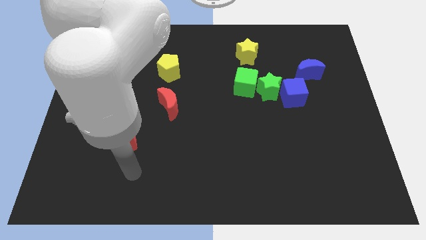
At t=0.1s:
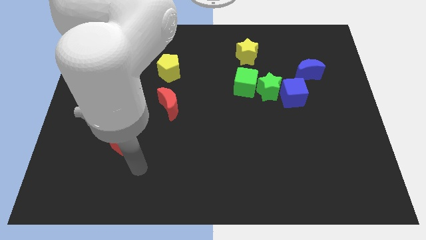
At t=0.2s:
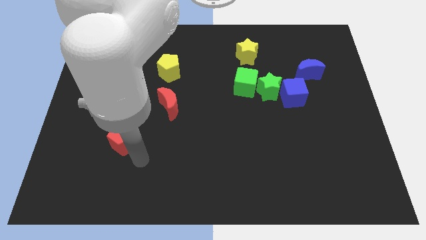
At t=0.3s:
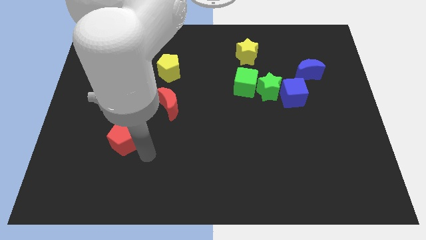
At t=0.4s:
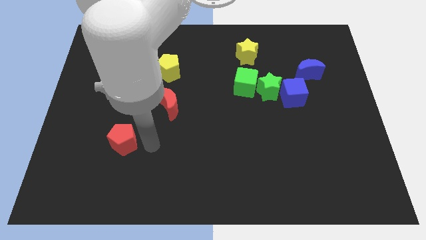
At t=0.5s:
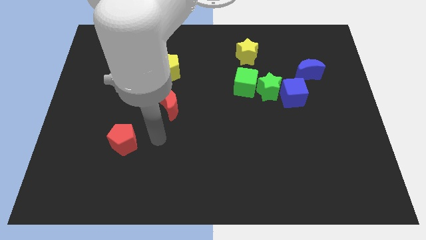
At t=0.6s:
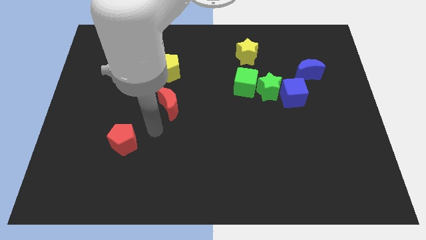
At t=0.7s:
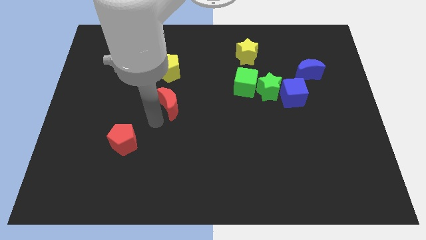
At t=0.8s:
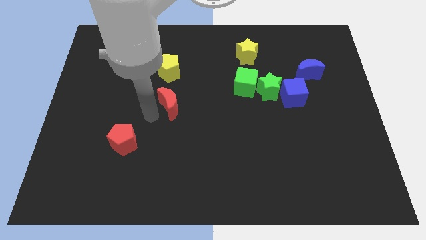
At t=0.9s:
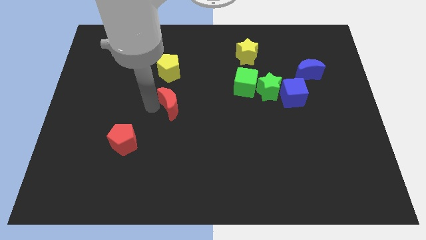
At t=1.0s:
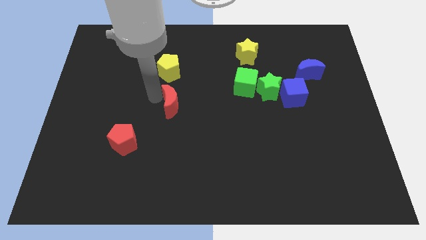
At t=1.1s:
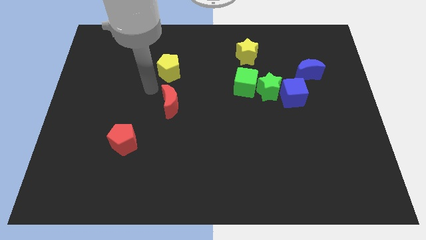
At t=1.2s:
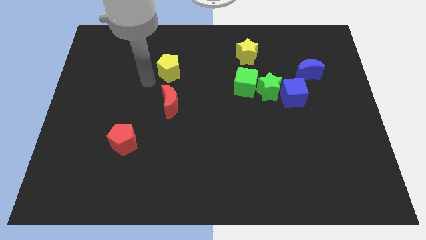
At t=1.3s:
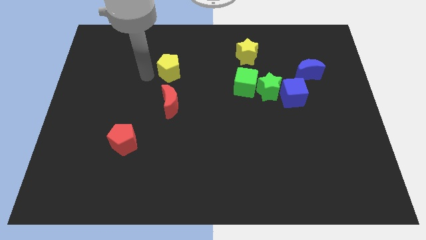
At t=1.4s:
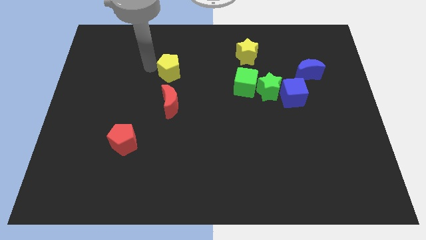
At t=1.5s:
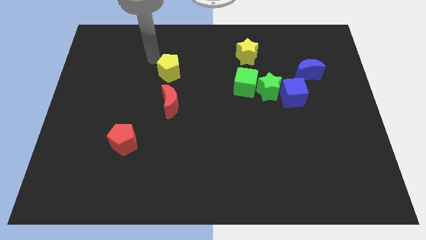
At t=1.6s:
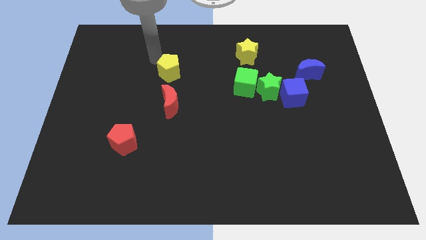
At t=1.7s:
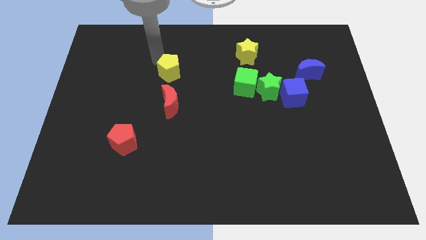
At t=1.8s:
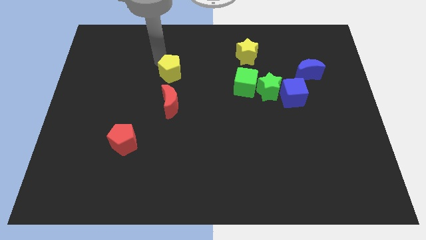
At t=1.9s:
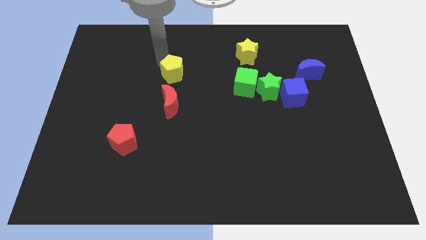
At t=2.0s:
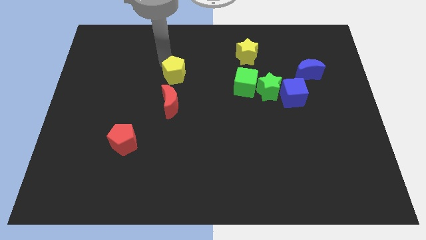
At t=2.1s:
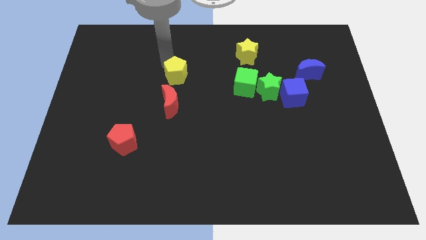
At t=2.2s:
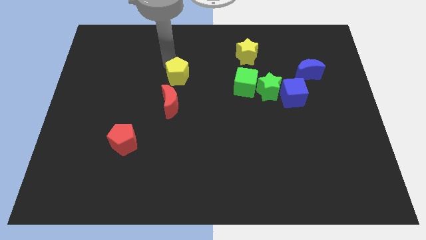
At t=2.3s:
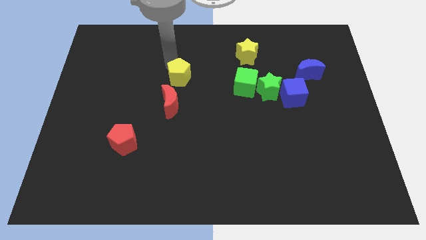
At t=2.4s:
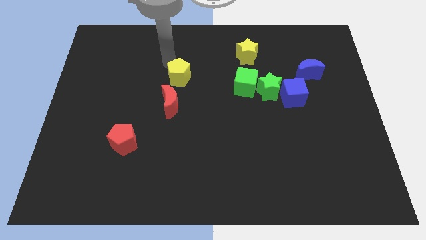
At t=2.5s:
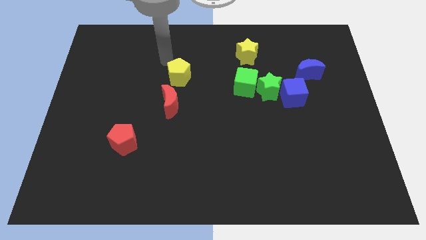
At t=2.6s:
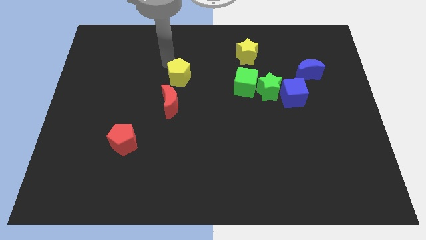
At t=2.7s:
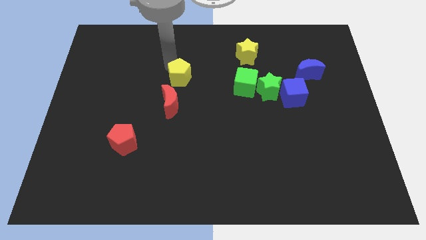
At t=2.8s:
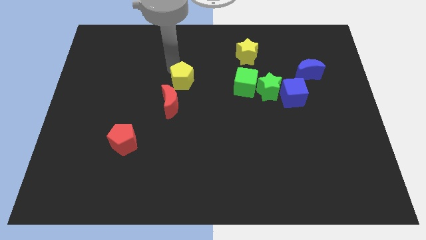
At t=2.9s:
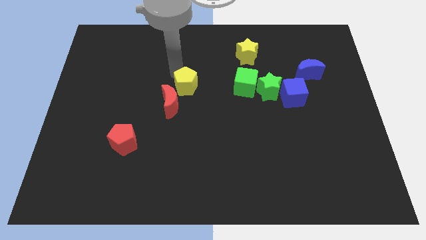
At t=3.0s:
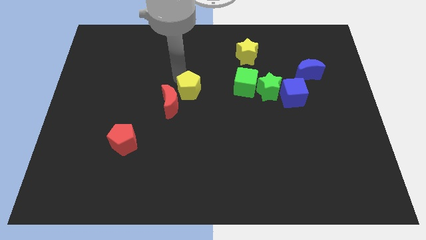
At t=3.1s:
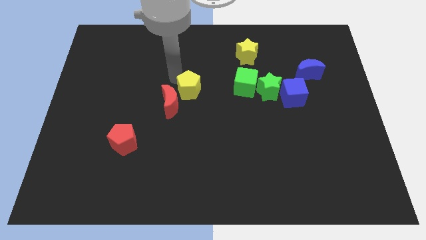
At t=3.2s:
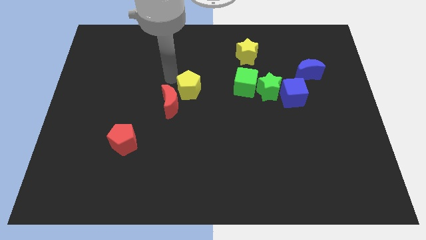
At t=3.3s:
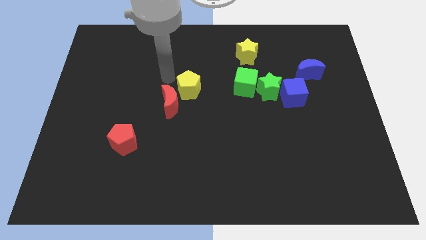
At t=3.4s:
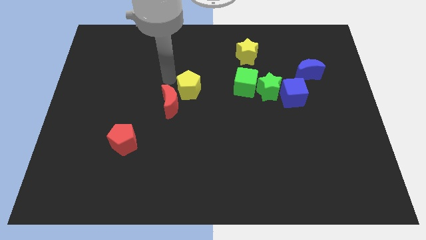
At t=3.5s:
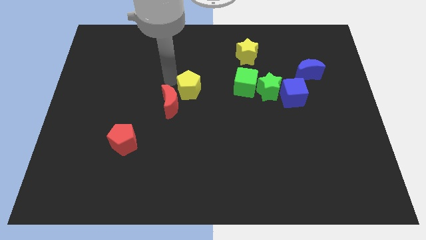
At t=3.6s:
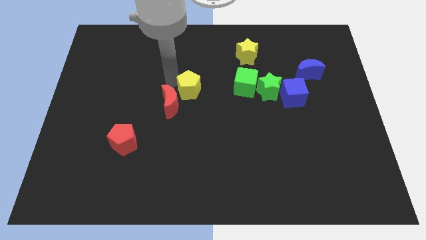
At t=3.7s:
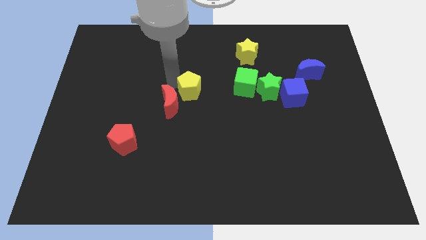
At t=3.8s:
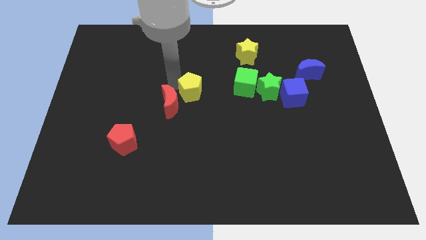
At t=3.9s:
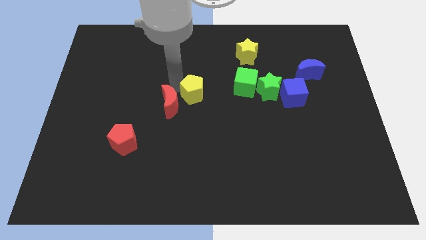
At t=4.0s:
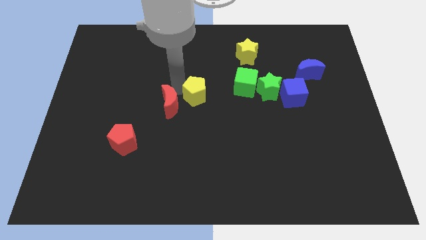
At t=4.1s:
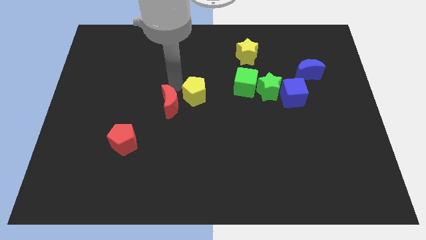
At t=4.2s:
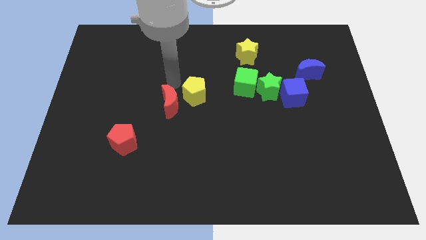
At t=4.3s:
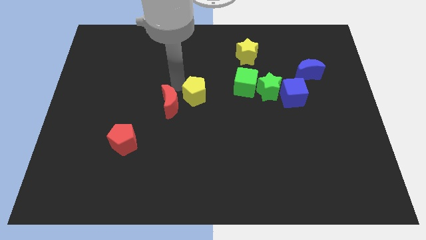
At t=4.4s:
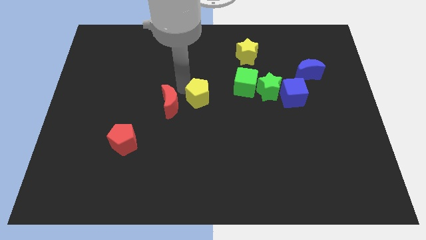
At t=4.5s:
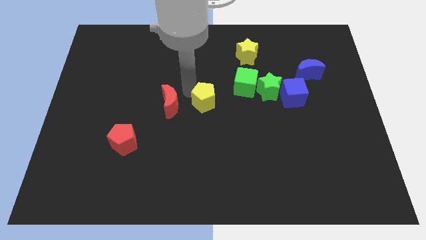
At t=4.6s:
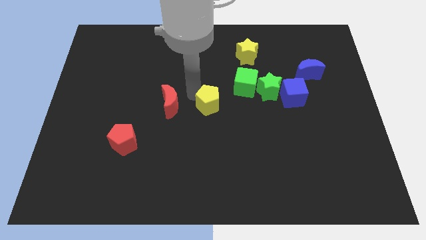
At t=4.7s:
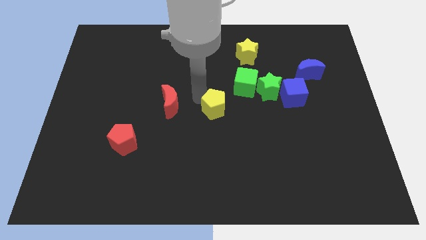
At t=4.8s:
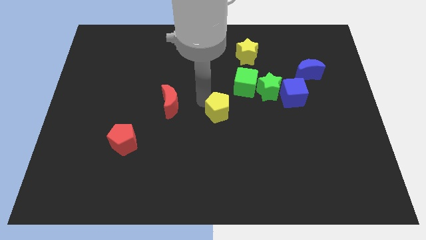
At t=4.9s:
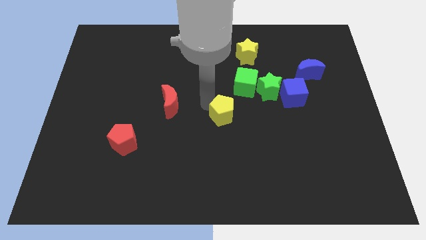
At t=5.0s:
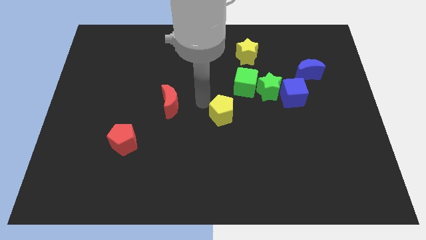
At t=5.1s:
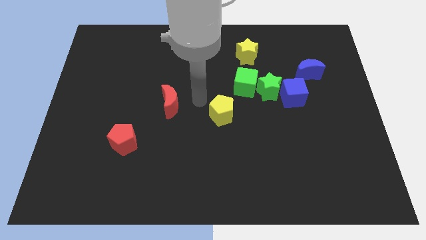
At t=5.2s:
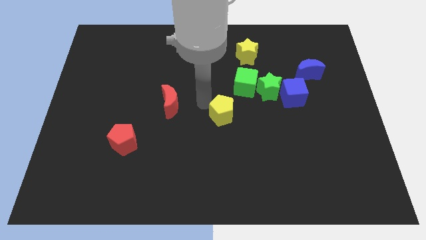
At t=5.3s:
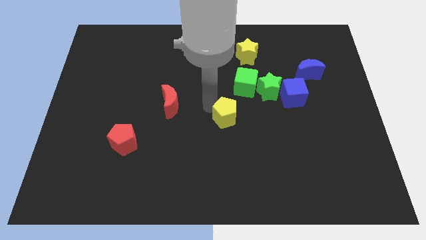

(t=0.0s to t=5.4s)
slide the yellow pentagon downwards and to the right diagonally

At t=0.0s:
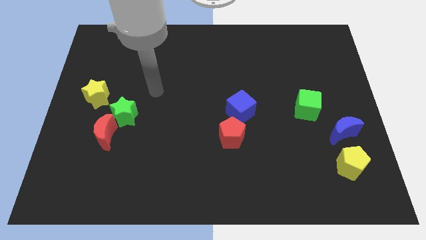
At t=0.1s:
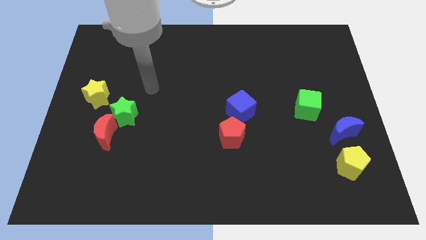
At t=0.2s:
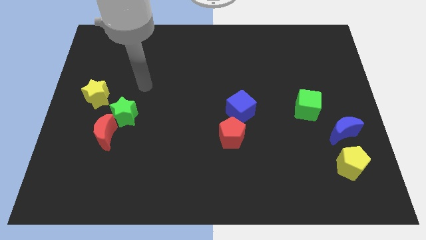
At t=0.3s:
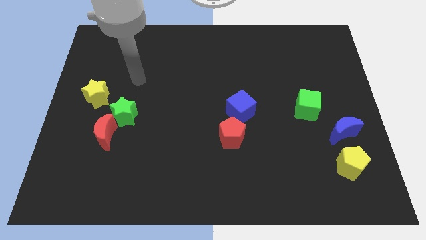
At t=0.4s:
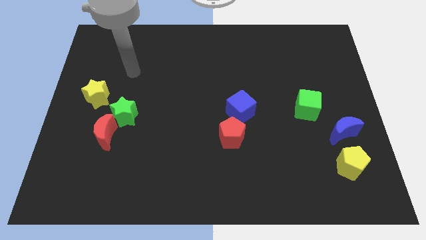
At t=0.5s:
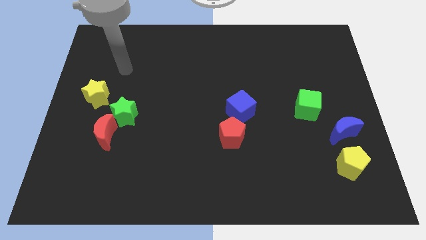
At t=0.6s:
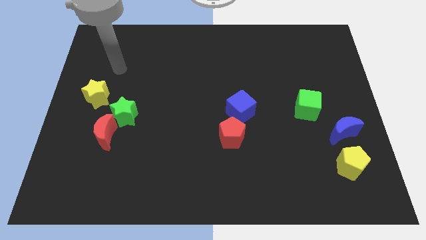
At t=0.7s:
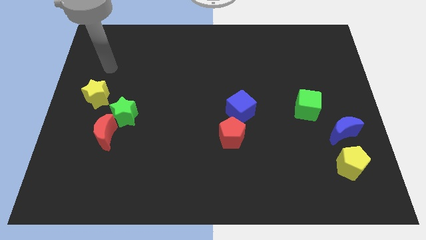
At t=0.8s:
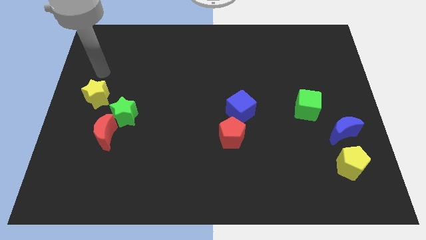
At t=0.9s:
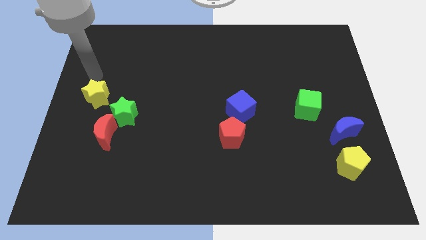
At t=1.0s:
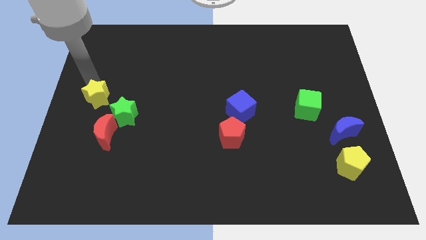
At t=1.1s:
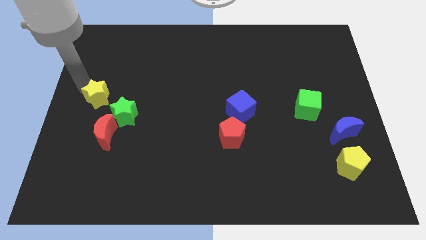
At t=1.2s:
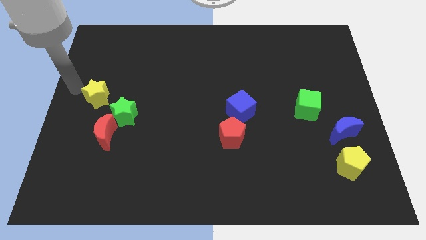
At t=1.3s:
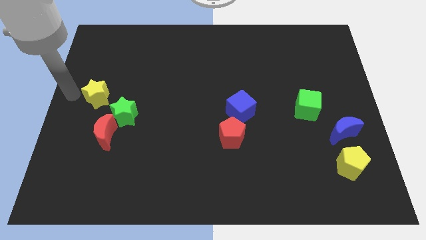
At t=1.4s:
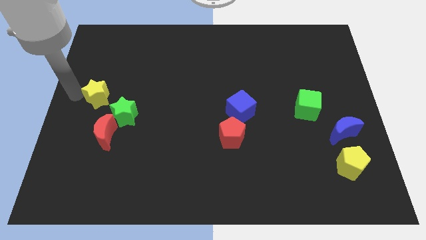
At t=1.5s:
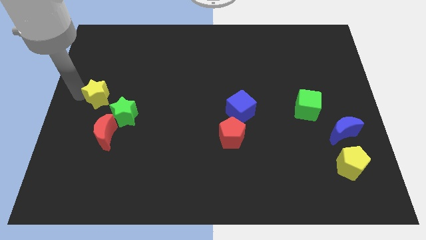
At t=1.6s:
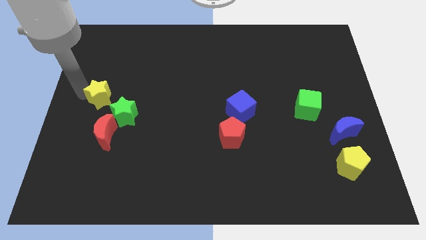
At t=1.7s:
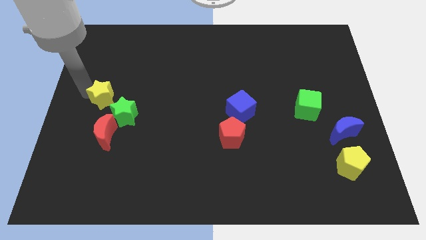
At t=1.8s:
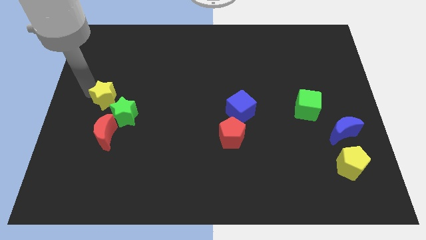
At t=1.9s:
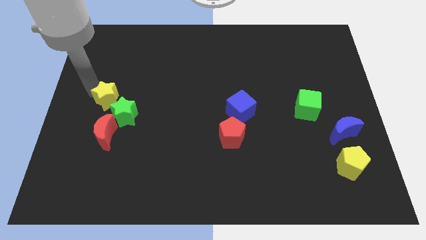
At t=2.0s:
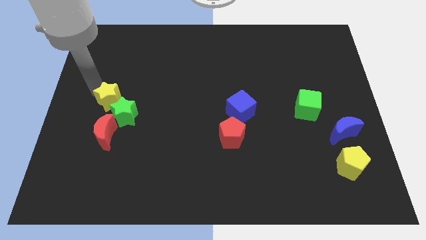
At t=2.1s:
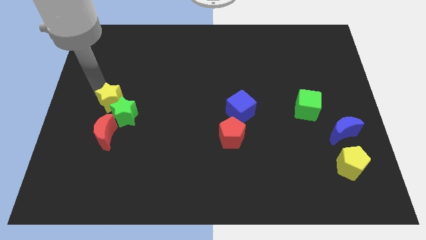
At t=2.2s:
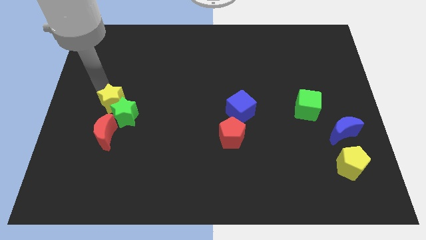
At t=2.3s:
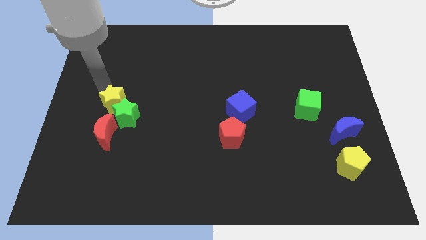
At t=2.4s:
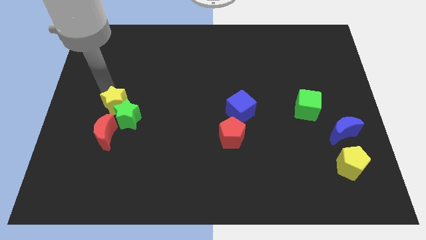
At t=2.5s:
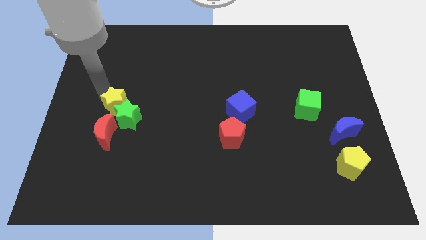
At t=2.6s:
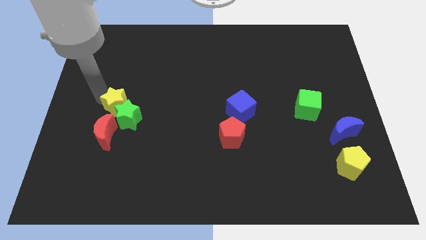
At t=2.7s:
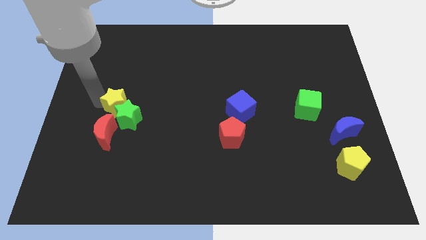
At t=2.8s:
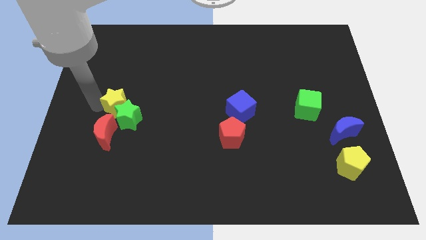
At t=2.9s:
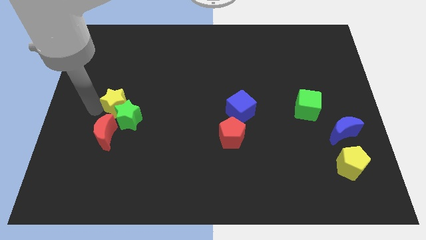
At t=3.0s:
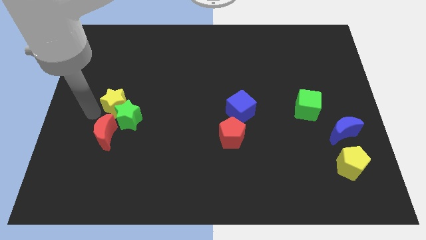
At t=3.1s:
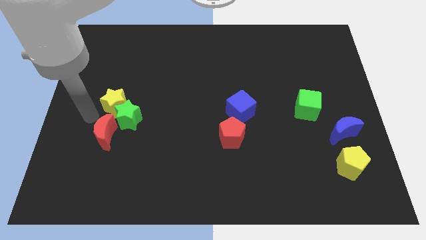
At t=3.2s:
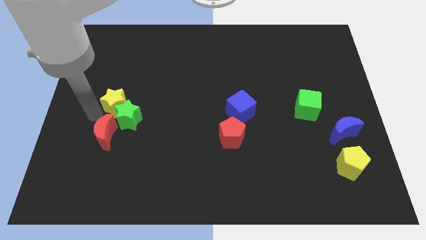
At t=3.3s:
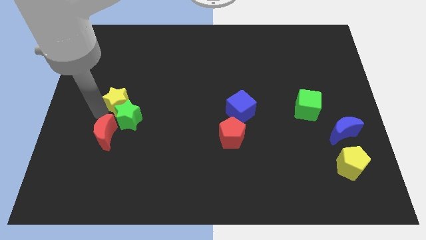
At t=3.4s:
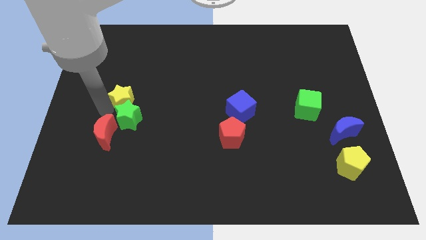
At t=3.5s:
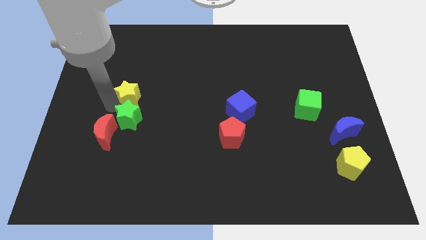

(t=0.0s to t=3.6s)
slide the yellow star somewhat to the right
